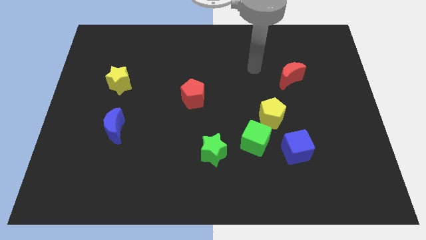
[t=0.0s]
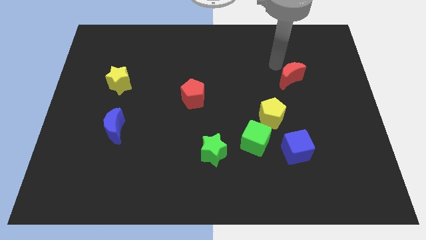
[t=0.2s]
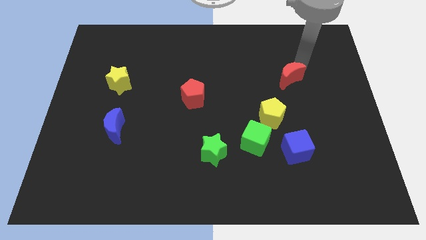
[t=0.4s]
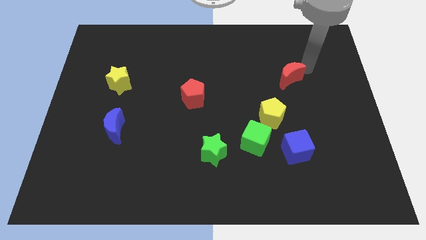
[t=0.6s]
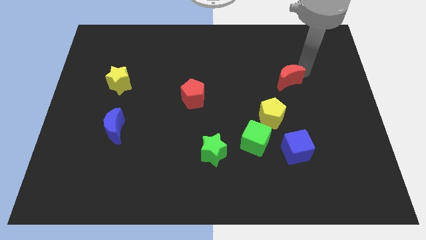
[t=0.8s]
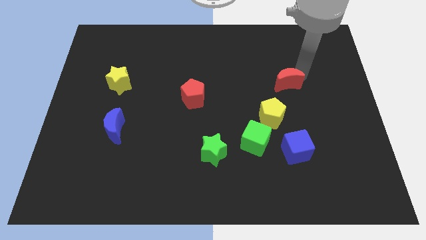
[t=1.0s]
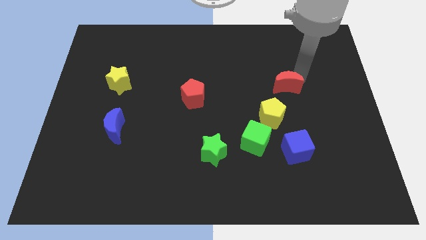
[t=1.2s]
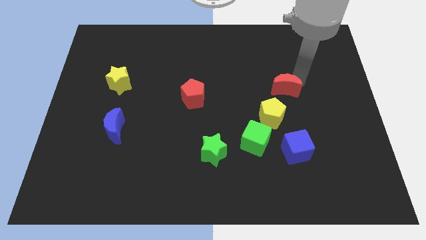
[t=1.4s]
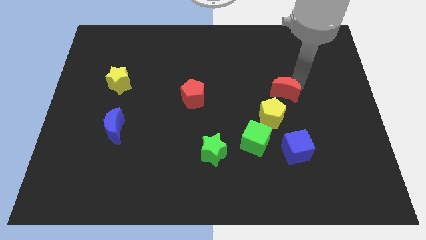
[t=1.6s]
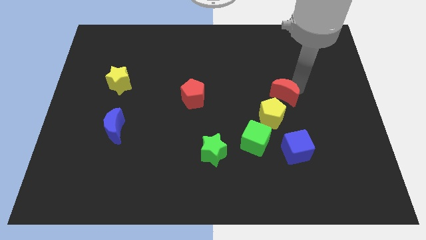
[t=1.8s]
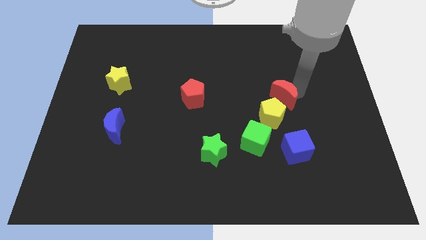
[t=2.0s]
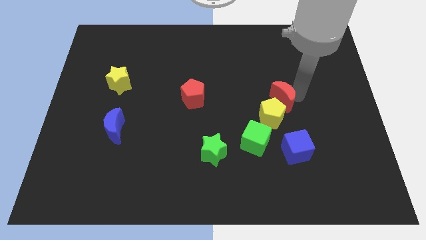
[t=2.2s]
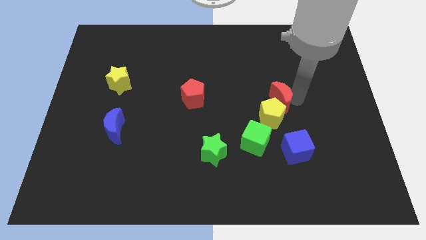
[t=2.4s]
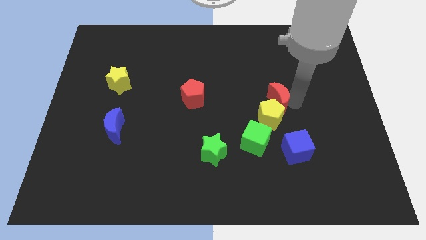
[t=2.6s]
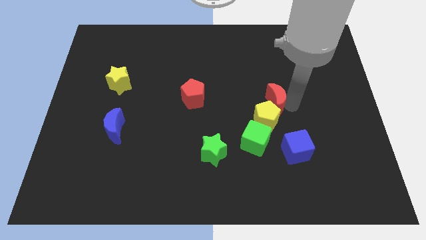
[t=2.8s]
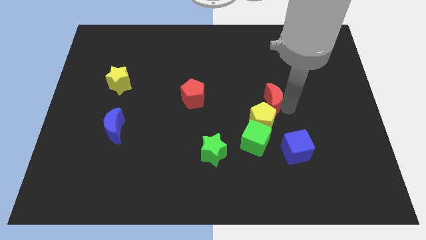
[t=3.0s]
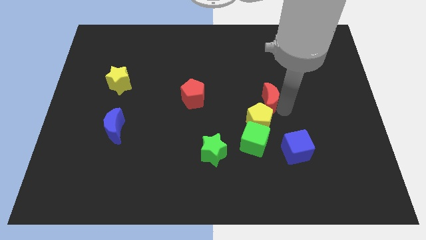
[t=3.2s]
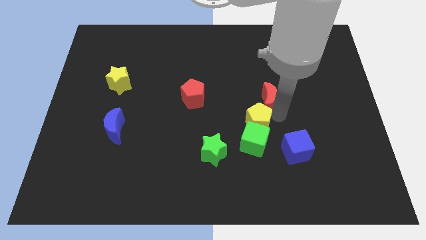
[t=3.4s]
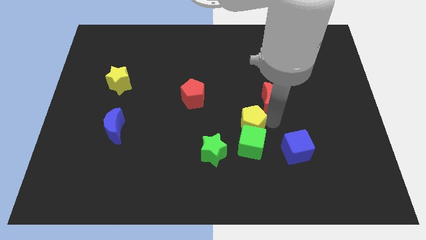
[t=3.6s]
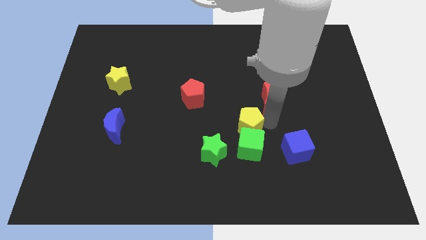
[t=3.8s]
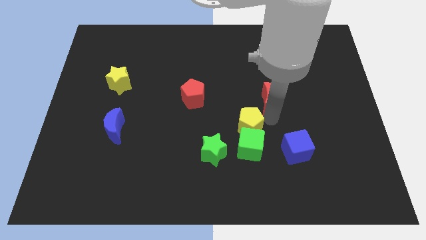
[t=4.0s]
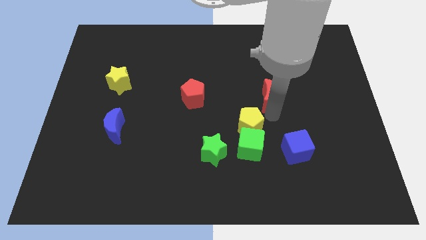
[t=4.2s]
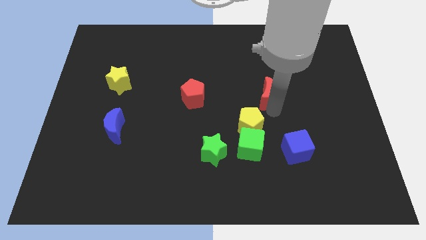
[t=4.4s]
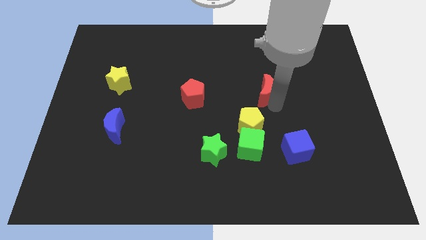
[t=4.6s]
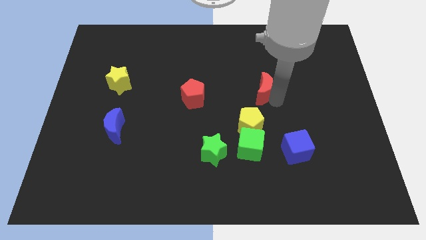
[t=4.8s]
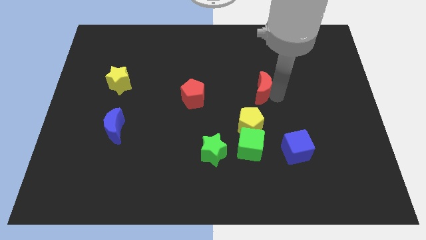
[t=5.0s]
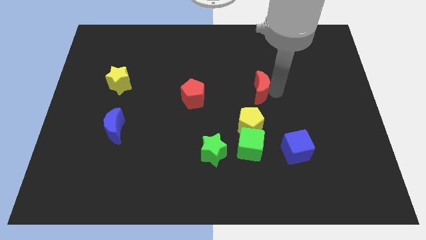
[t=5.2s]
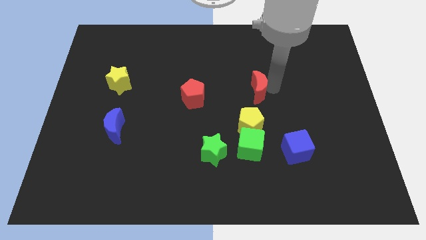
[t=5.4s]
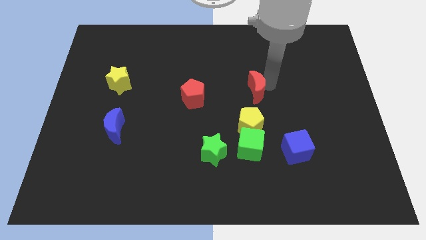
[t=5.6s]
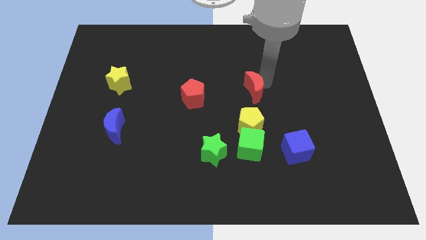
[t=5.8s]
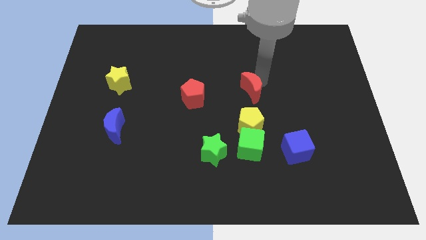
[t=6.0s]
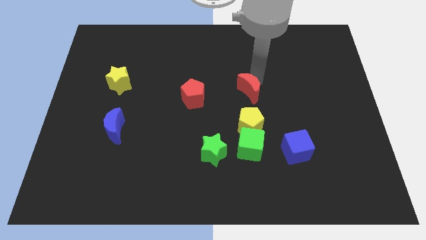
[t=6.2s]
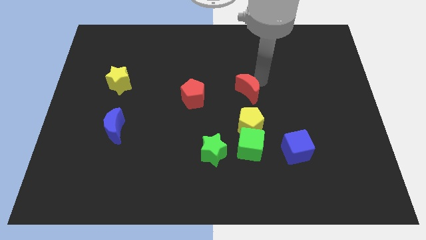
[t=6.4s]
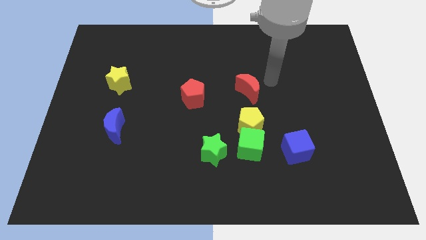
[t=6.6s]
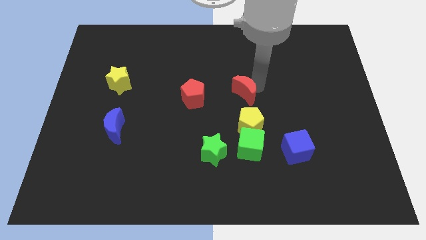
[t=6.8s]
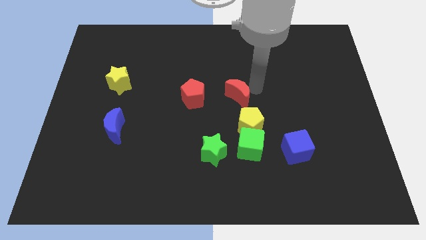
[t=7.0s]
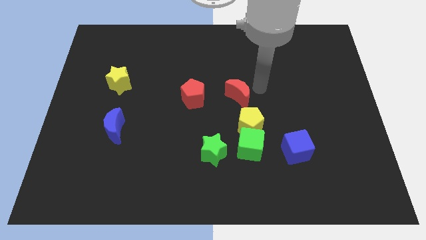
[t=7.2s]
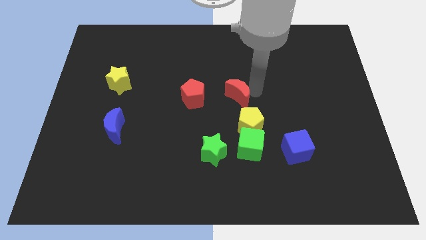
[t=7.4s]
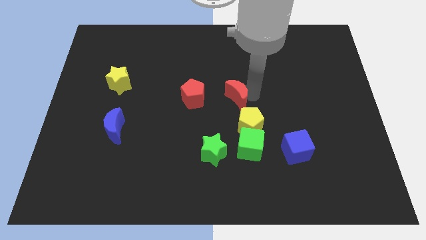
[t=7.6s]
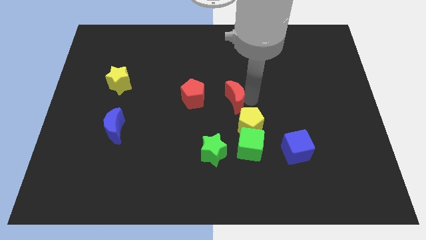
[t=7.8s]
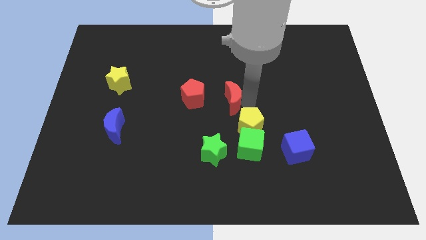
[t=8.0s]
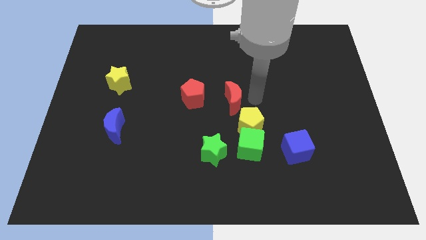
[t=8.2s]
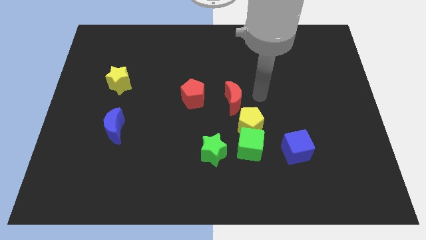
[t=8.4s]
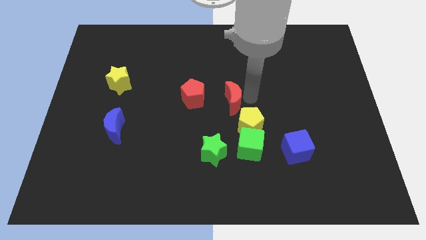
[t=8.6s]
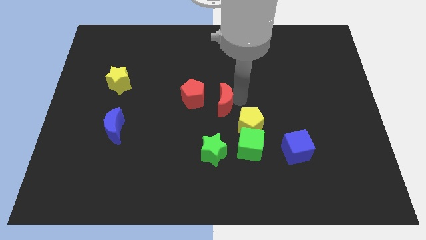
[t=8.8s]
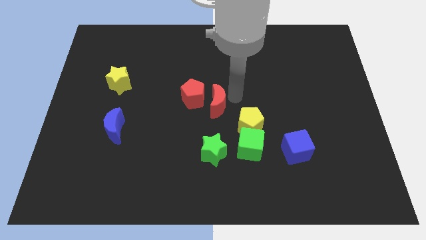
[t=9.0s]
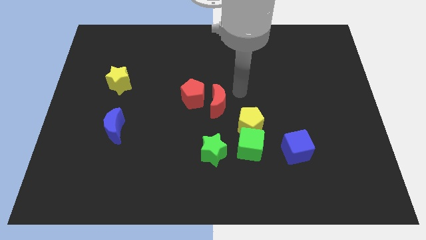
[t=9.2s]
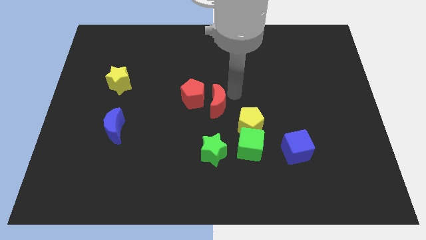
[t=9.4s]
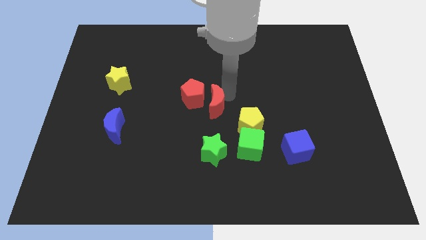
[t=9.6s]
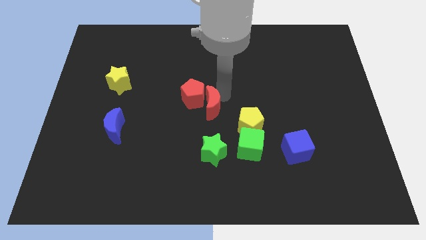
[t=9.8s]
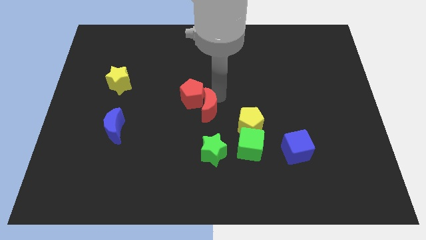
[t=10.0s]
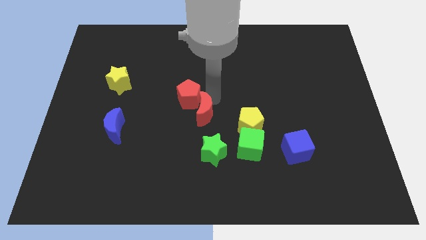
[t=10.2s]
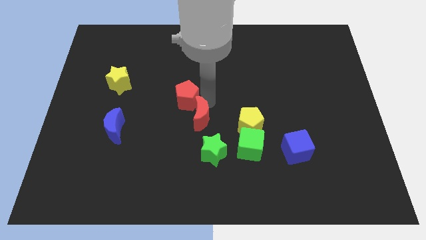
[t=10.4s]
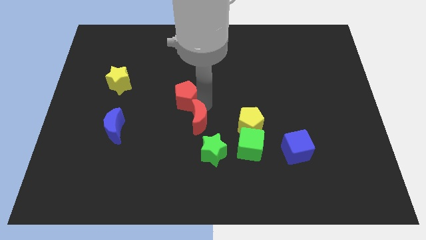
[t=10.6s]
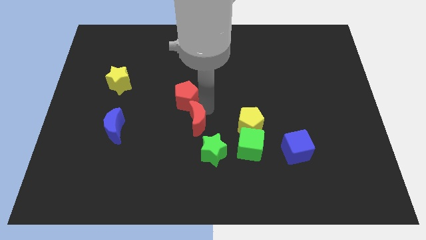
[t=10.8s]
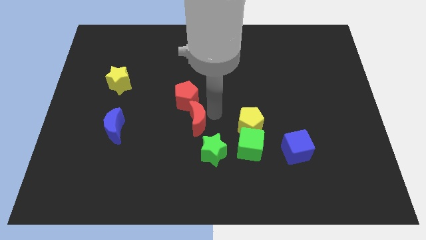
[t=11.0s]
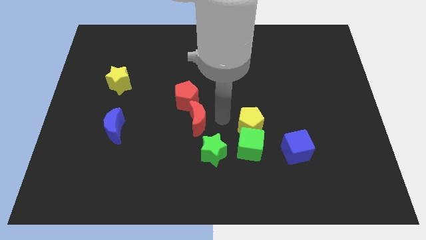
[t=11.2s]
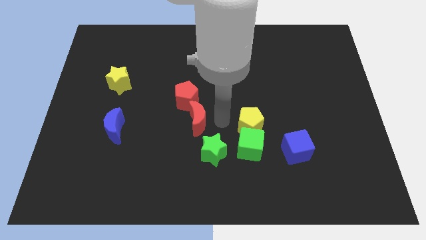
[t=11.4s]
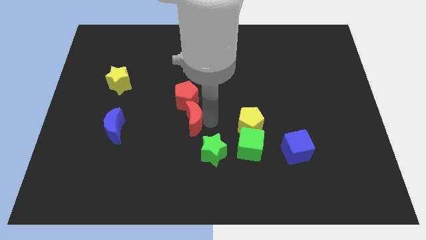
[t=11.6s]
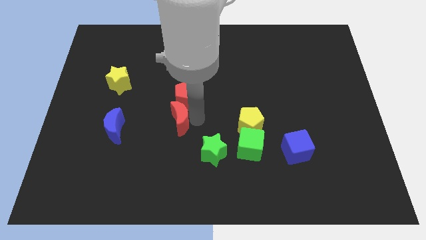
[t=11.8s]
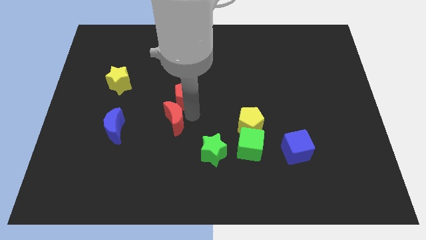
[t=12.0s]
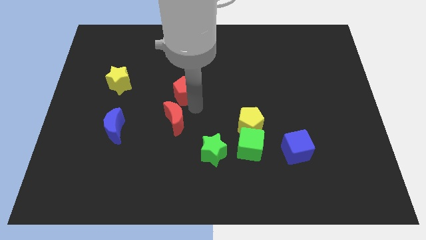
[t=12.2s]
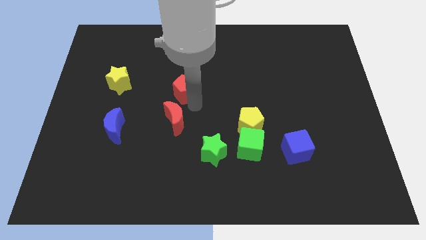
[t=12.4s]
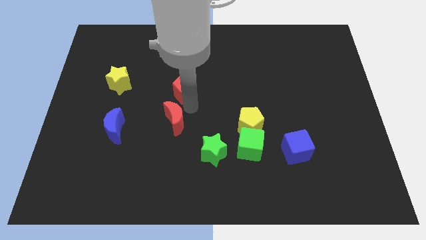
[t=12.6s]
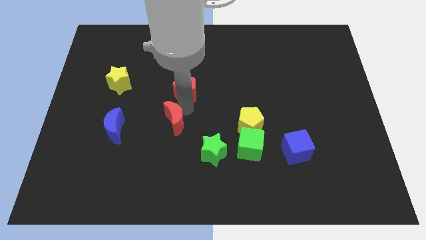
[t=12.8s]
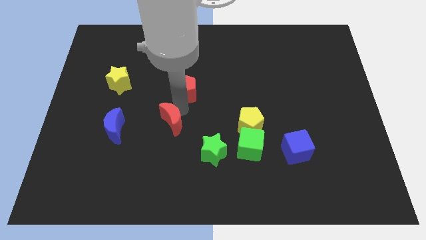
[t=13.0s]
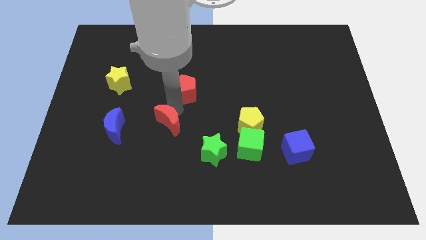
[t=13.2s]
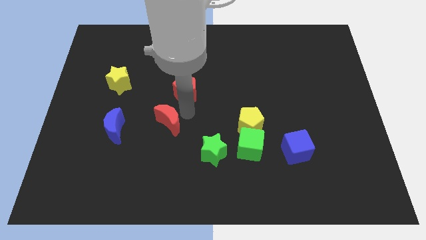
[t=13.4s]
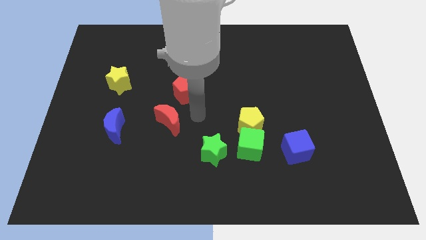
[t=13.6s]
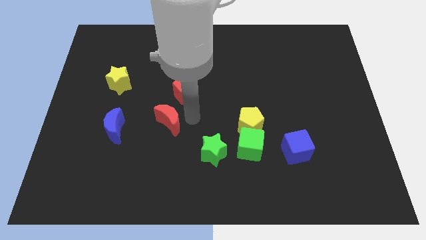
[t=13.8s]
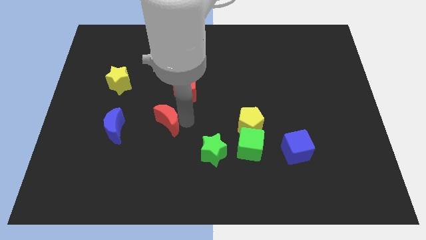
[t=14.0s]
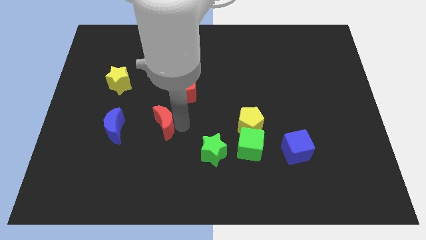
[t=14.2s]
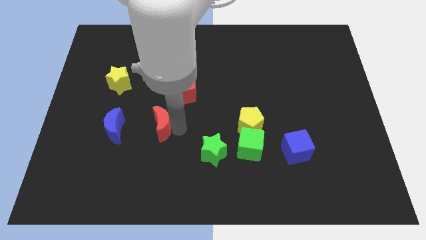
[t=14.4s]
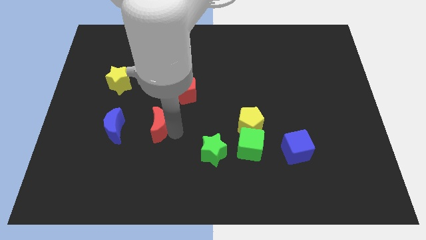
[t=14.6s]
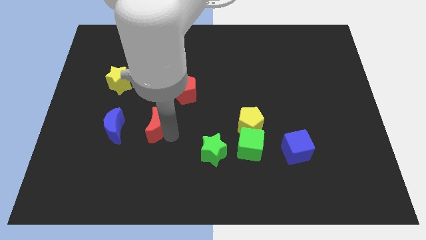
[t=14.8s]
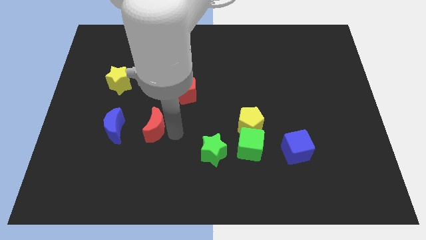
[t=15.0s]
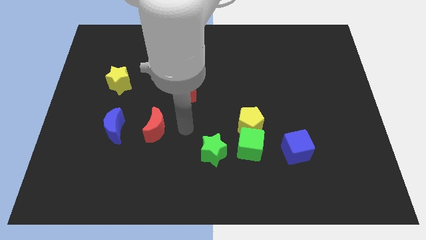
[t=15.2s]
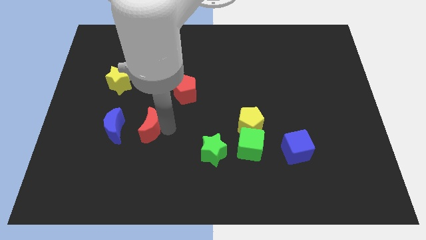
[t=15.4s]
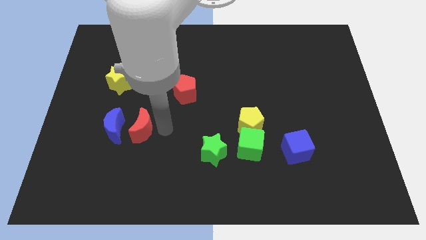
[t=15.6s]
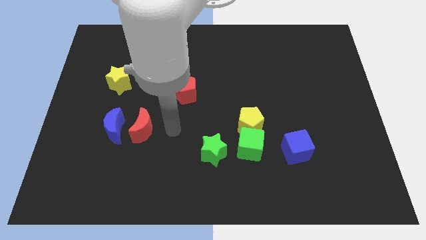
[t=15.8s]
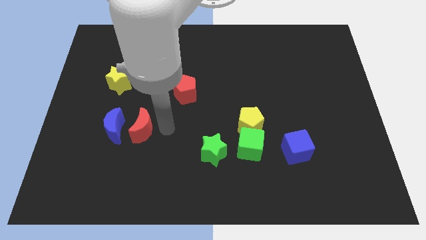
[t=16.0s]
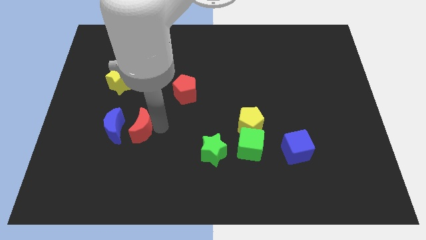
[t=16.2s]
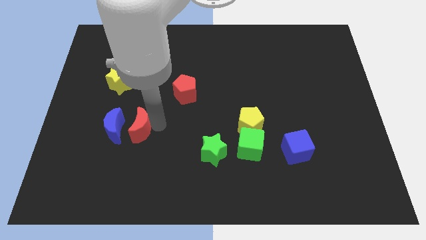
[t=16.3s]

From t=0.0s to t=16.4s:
slide the red moon towards the blue moon
